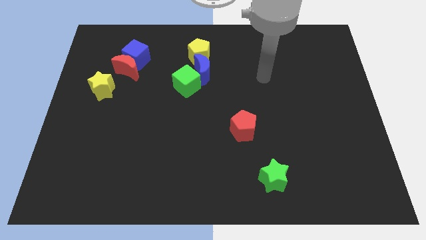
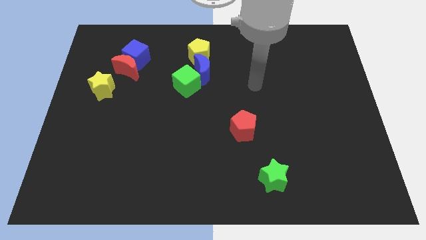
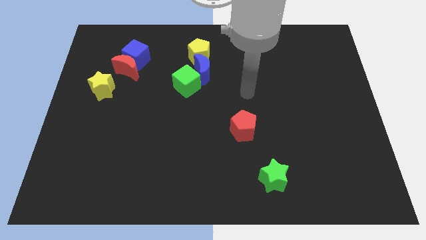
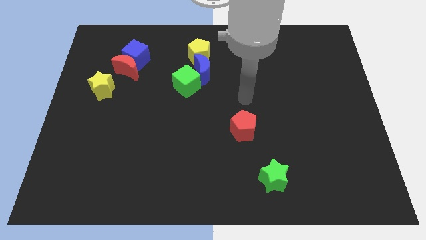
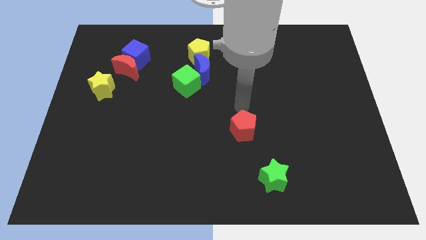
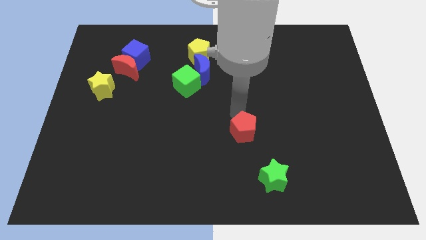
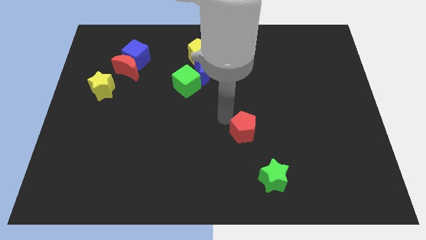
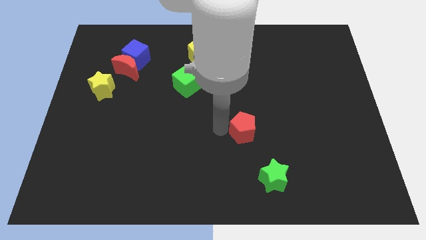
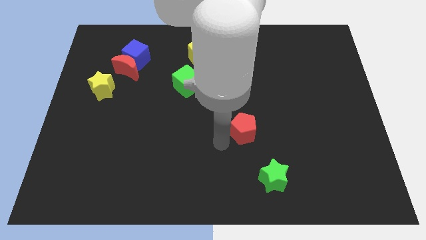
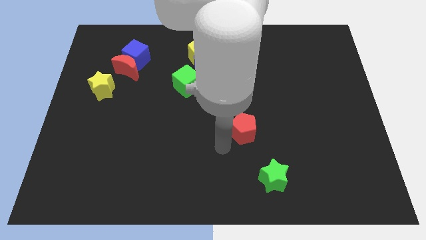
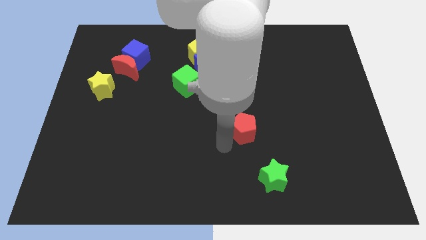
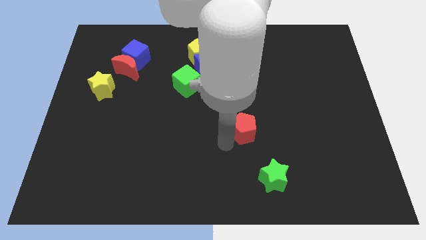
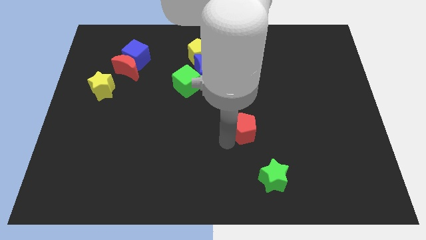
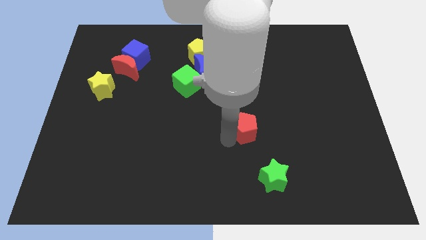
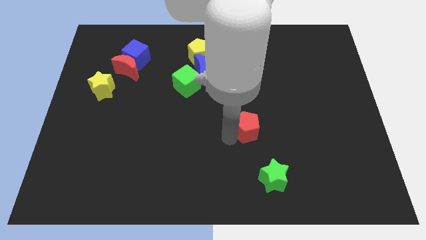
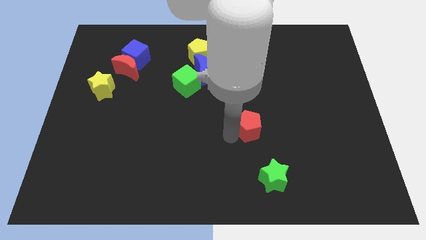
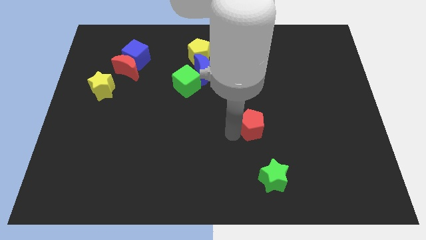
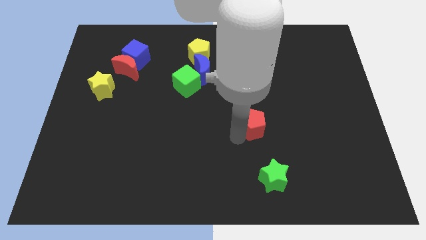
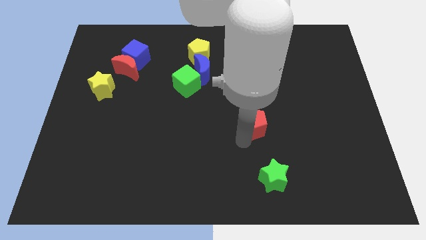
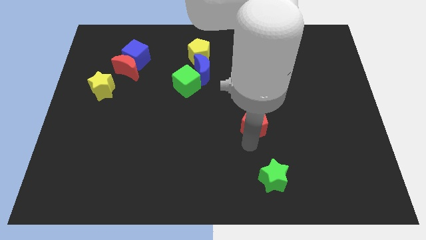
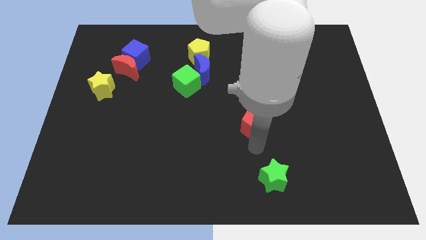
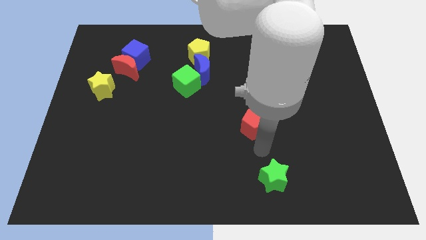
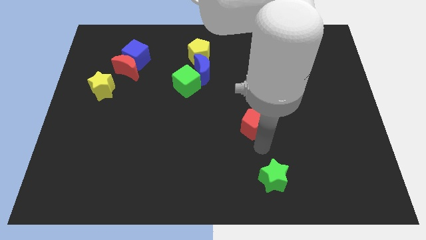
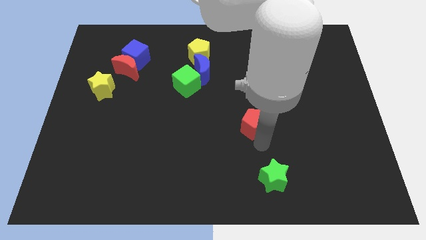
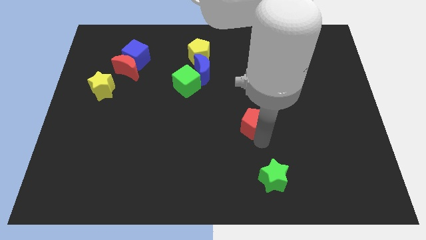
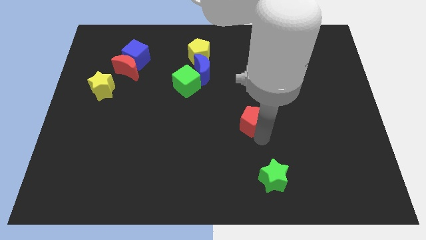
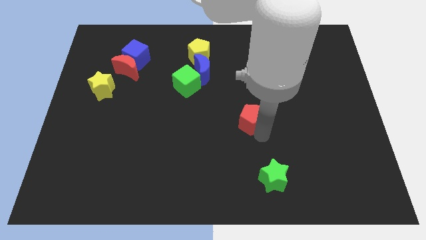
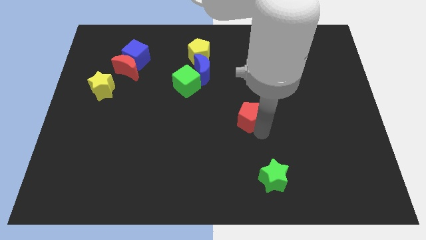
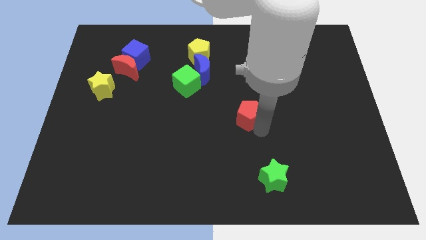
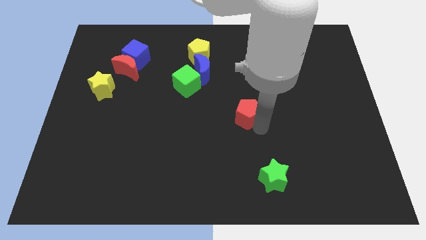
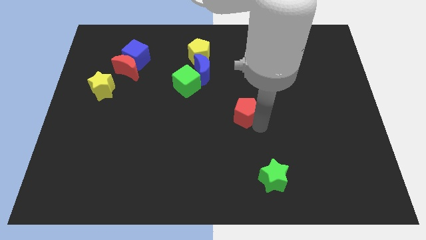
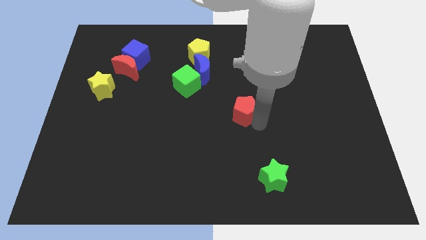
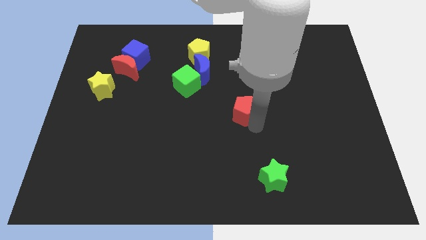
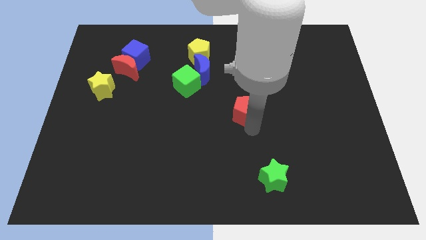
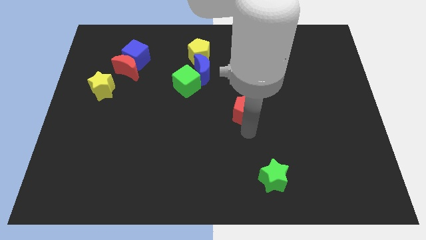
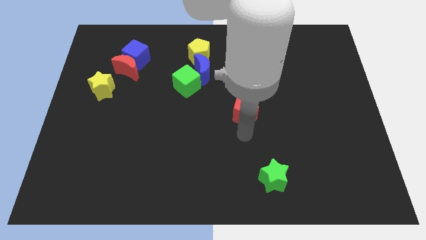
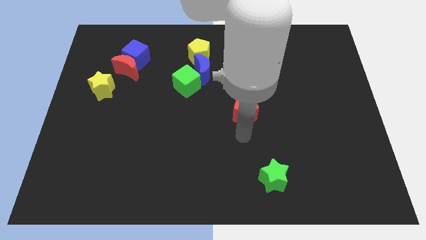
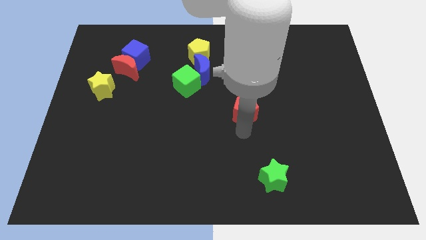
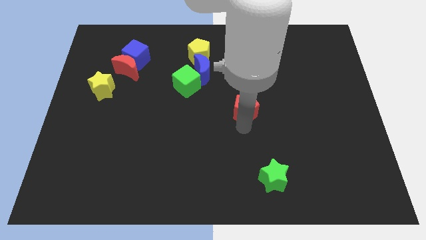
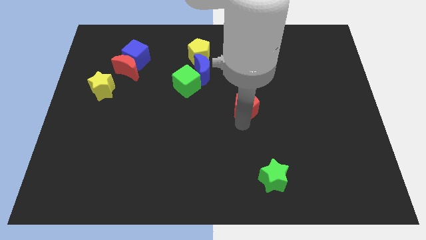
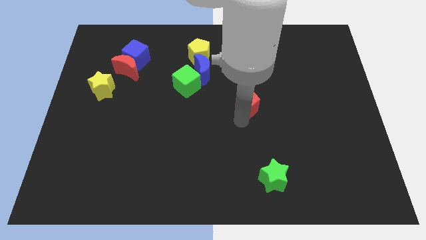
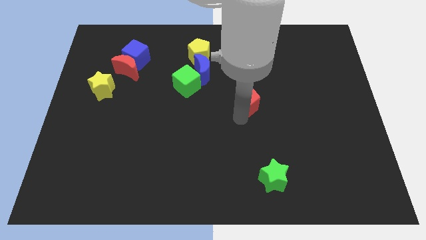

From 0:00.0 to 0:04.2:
move the red pentagon a little up

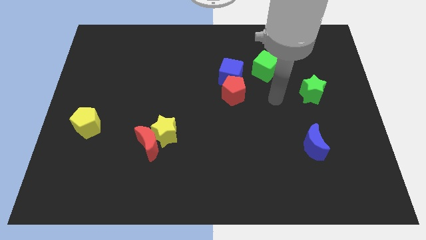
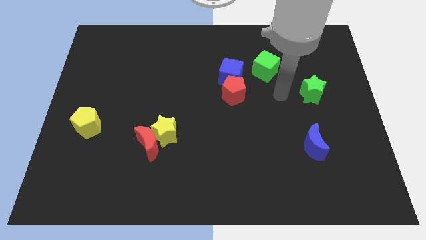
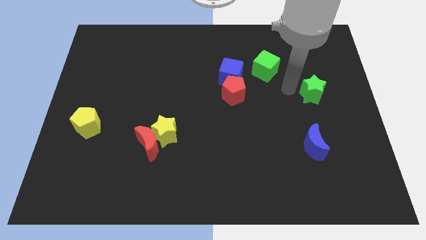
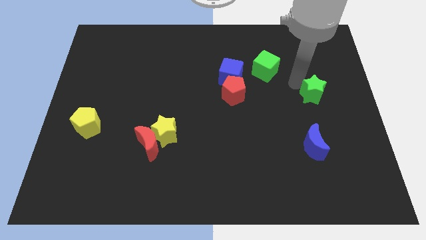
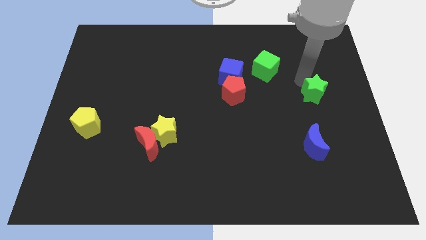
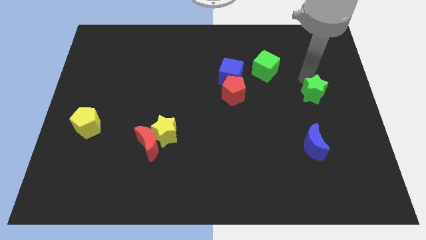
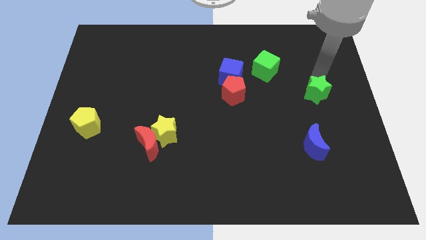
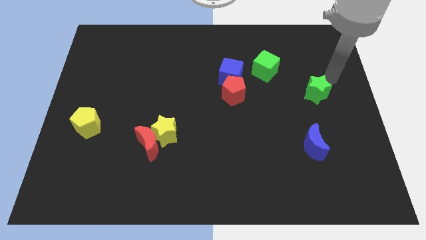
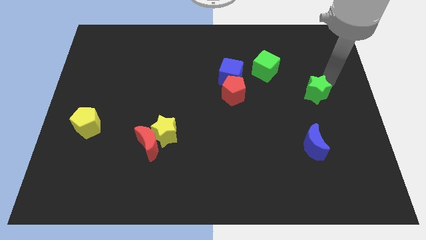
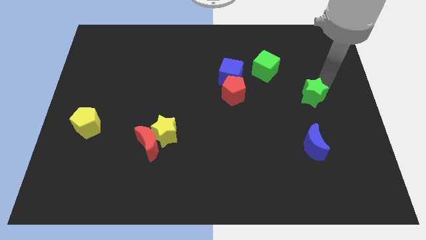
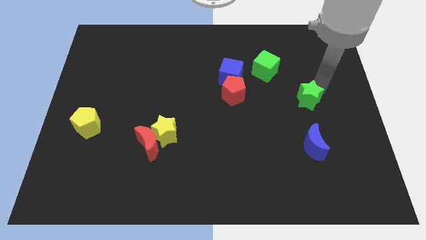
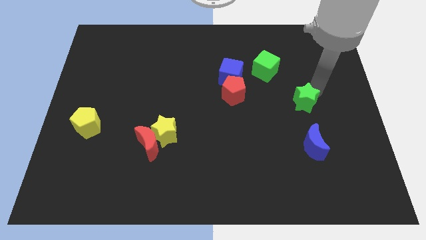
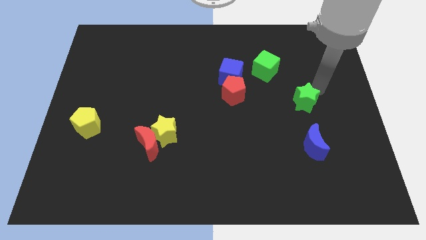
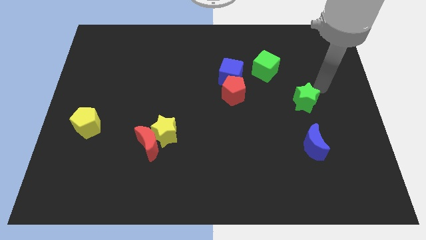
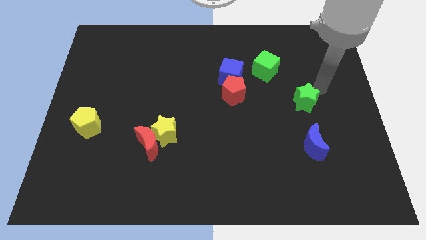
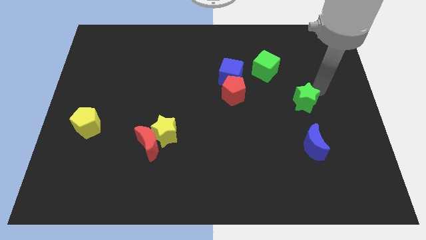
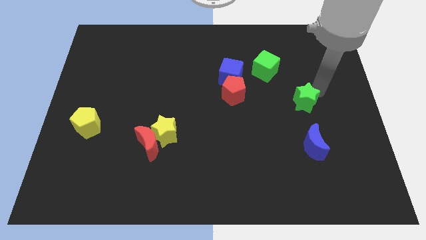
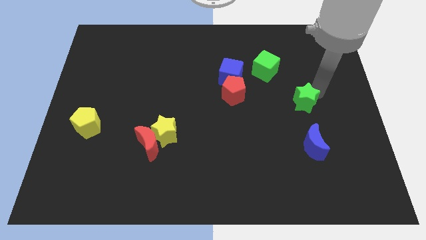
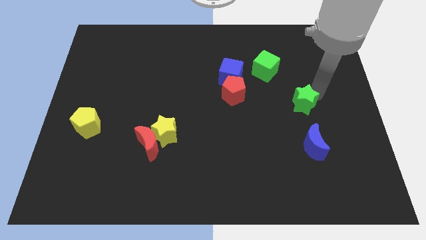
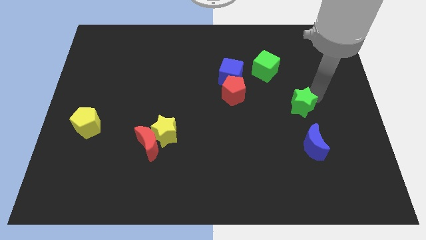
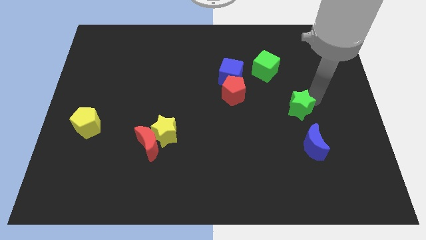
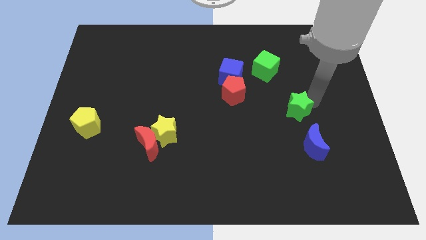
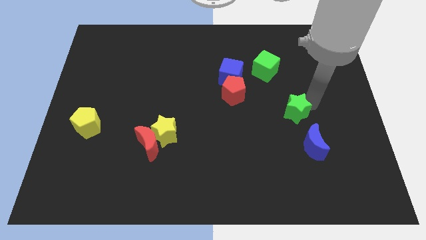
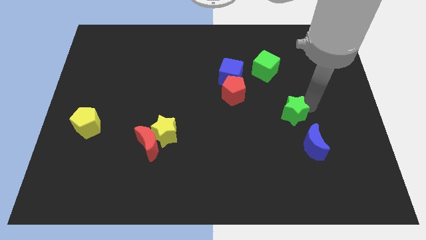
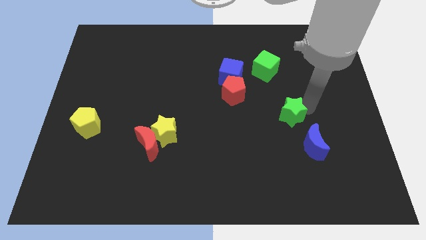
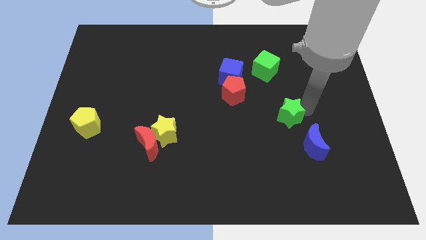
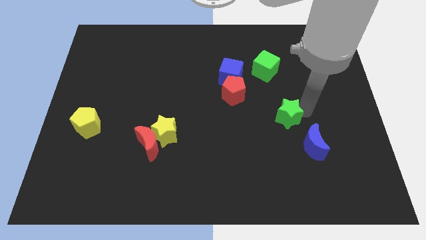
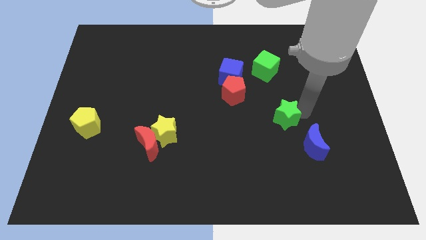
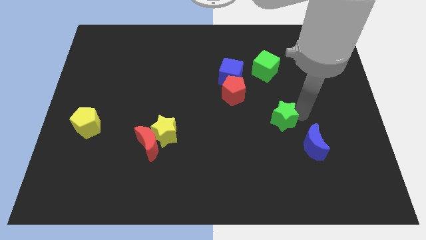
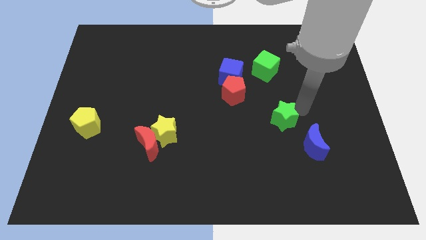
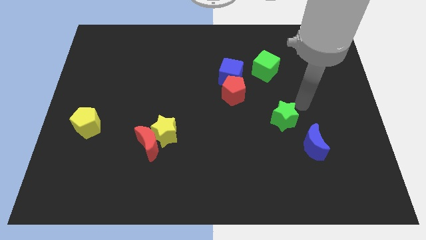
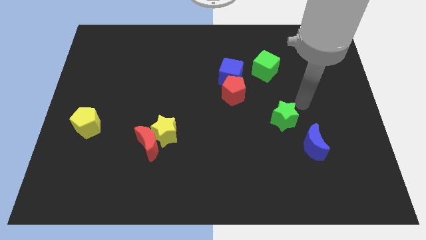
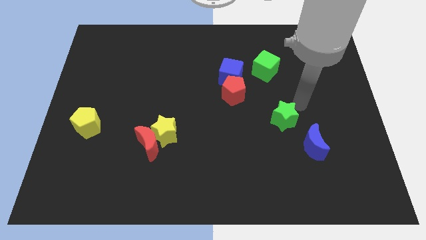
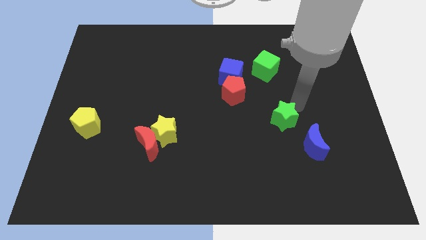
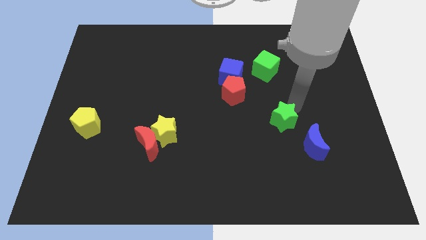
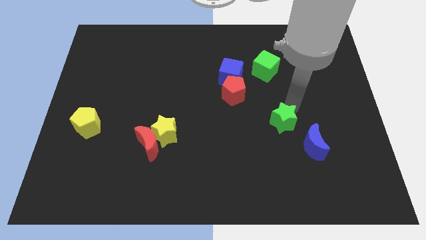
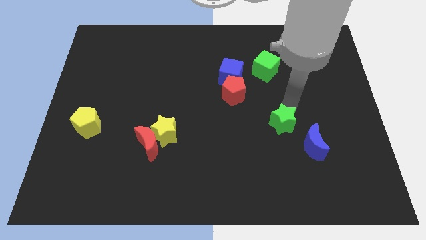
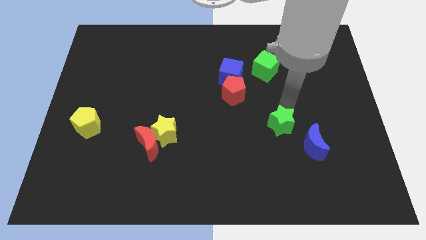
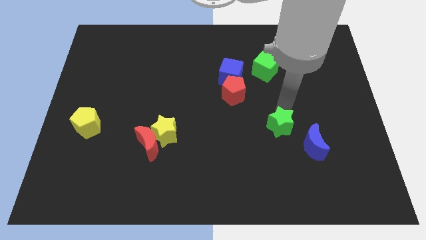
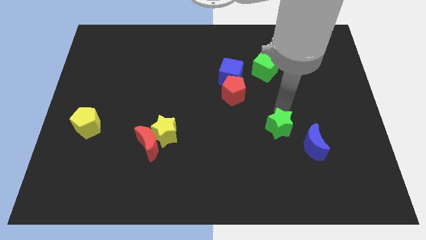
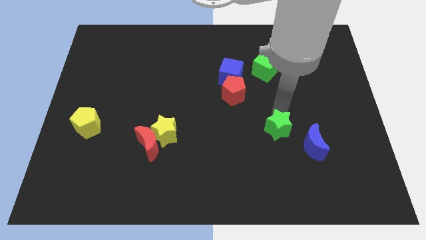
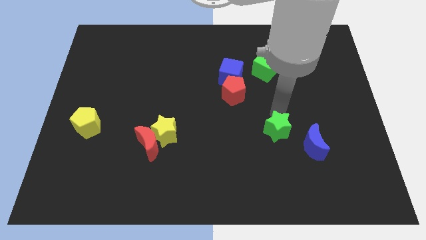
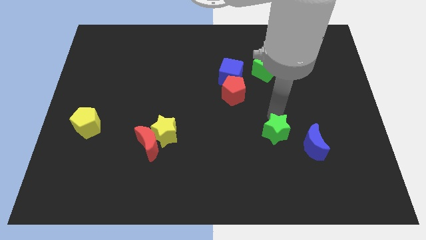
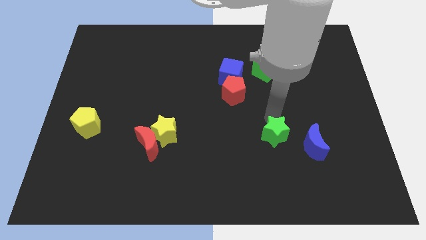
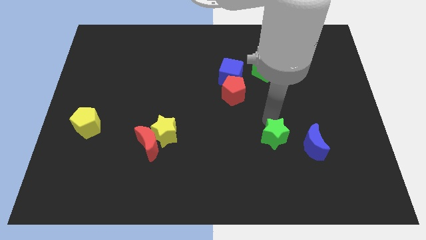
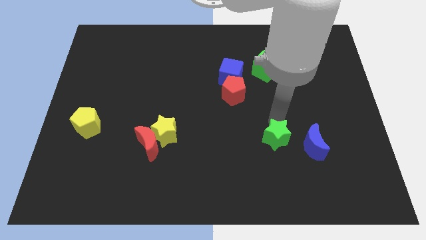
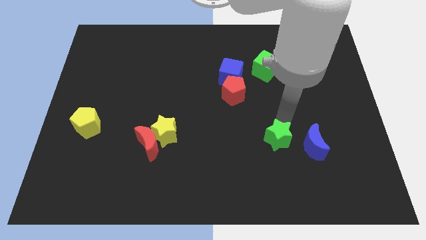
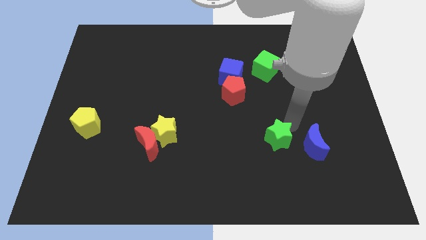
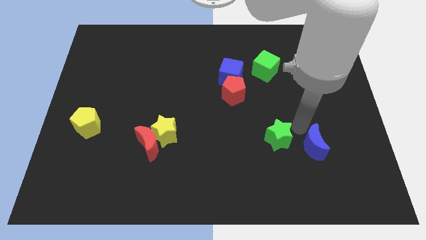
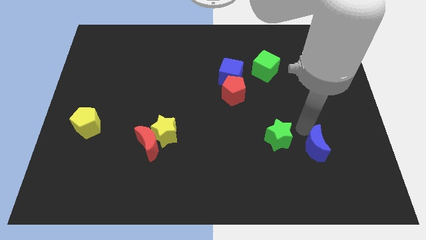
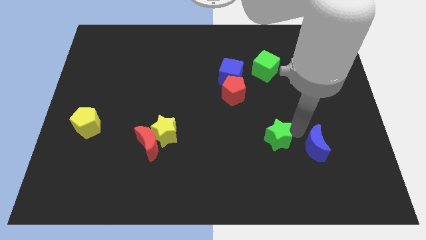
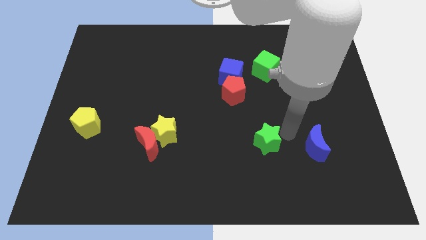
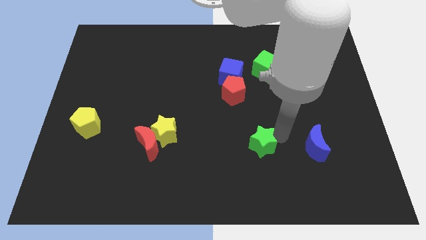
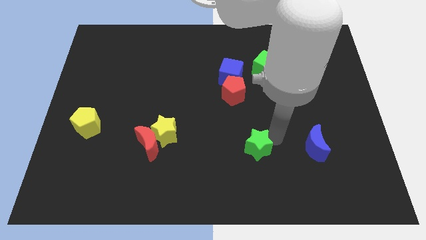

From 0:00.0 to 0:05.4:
move the green star down and to the left
